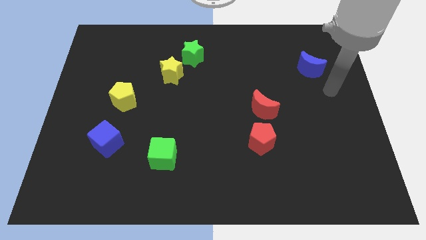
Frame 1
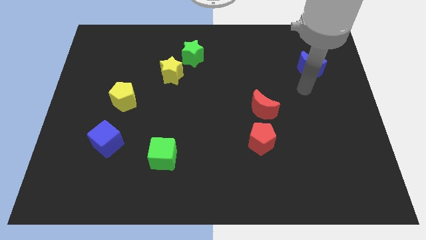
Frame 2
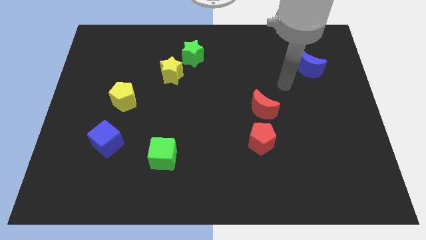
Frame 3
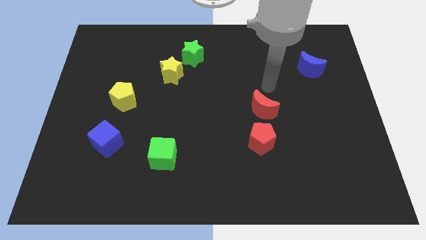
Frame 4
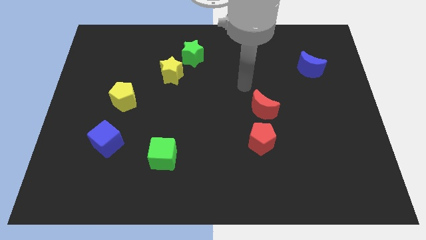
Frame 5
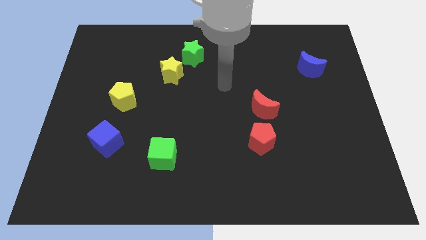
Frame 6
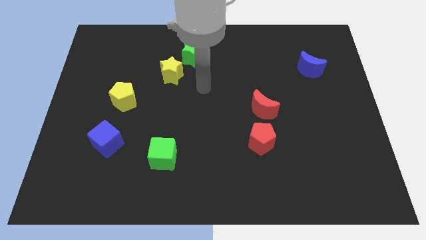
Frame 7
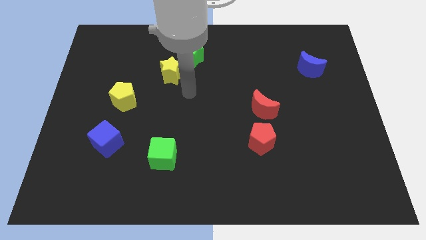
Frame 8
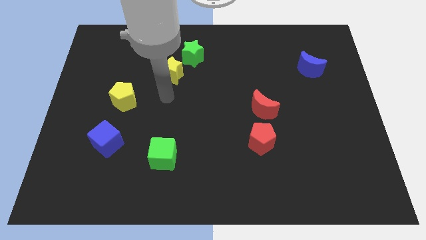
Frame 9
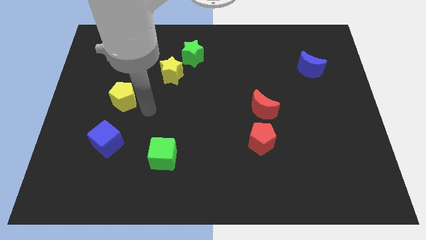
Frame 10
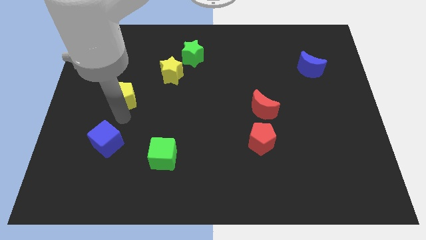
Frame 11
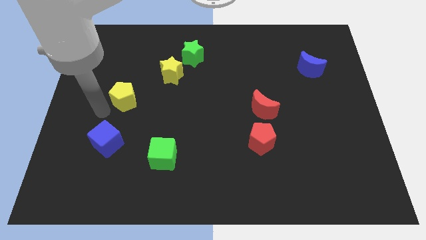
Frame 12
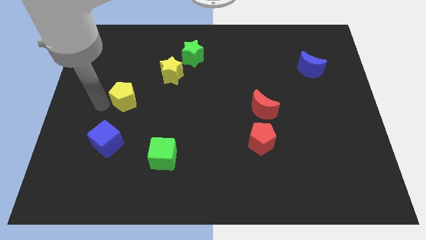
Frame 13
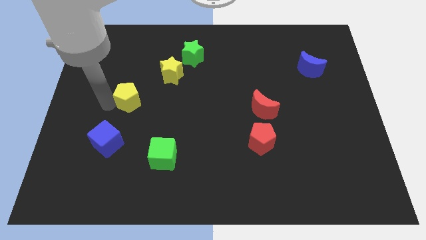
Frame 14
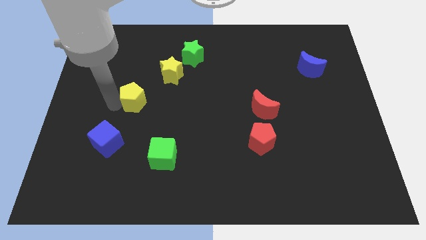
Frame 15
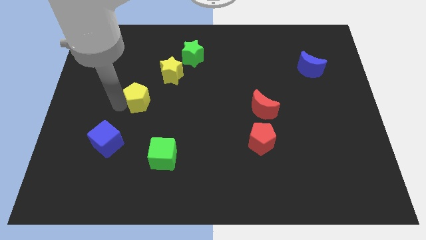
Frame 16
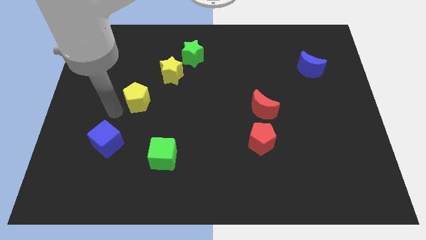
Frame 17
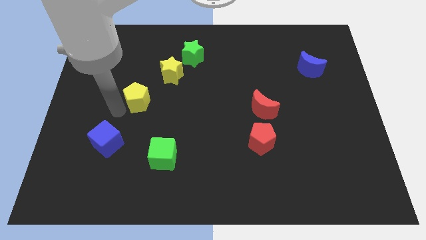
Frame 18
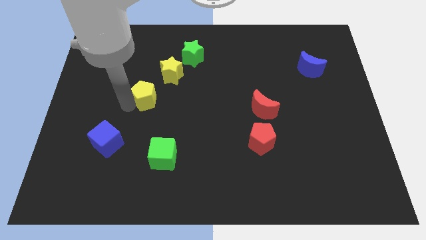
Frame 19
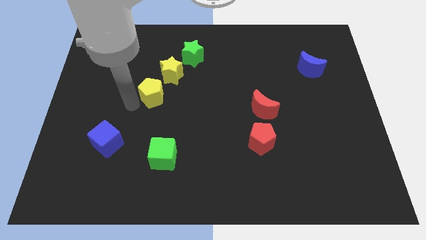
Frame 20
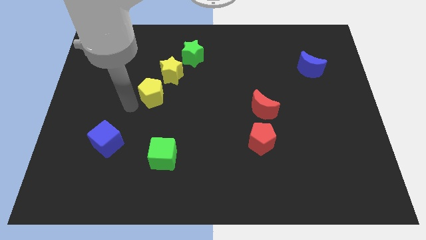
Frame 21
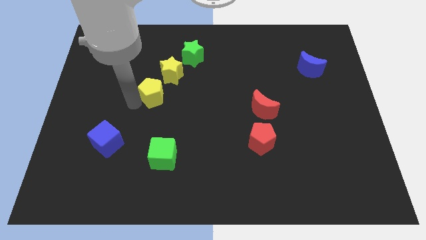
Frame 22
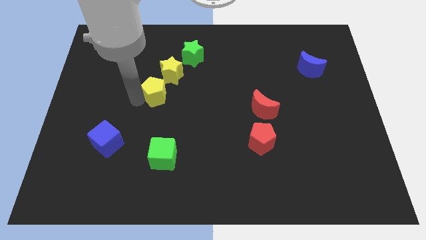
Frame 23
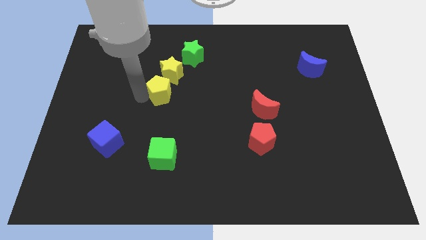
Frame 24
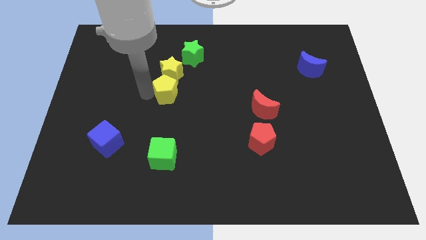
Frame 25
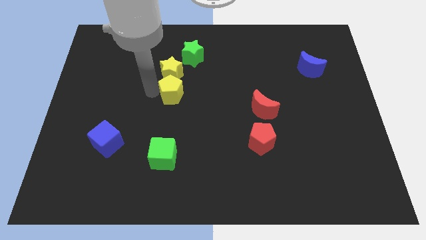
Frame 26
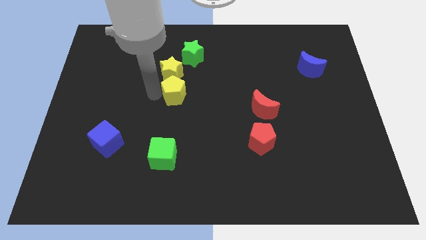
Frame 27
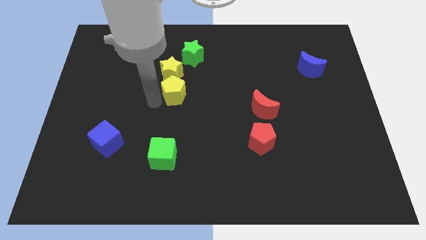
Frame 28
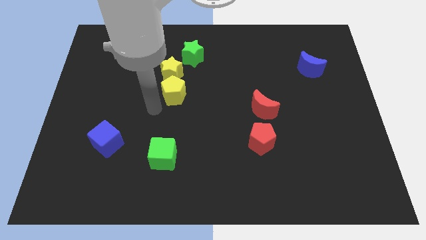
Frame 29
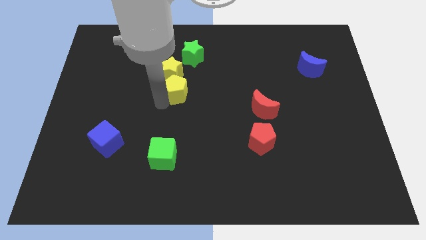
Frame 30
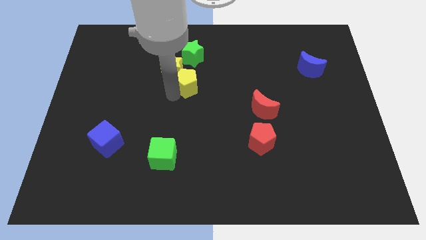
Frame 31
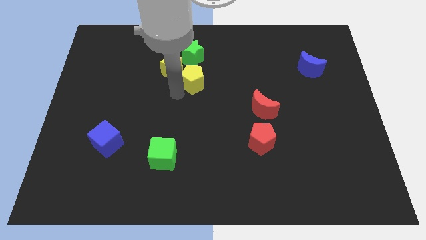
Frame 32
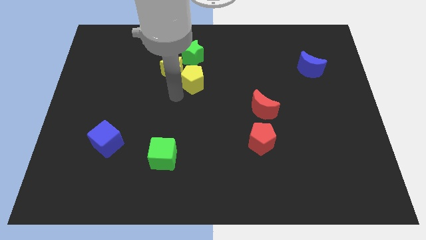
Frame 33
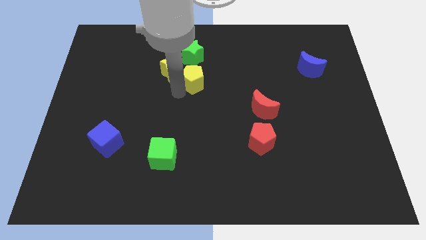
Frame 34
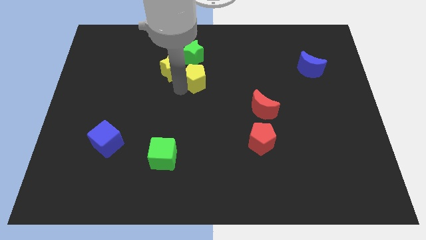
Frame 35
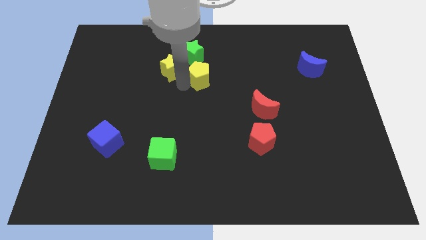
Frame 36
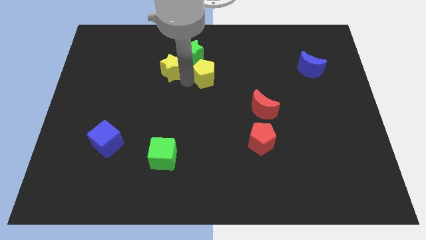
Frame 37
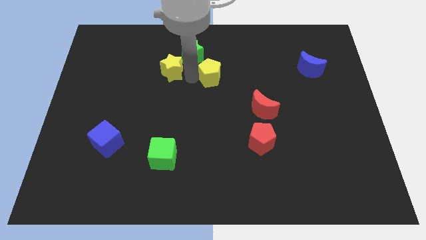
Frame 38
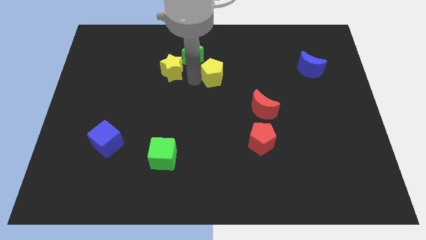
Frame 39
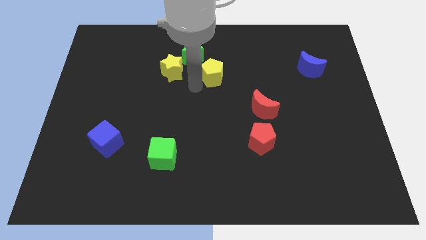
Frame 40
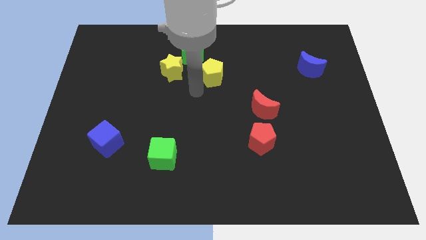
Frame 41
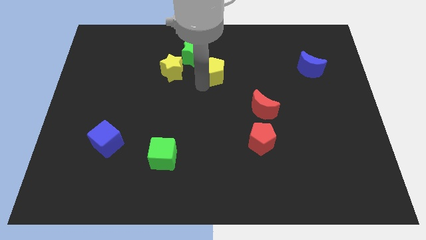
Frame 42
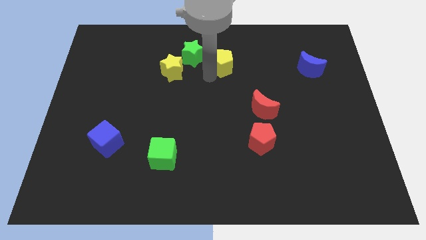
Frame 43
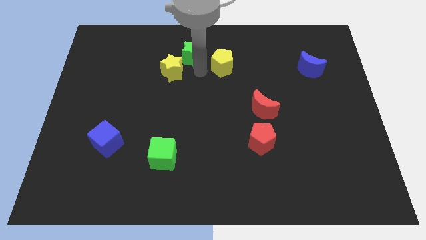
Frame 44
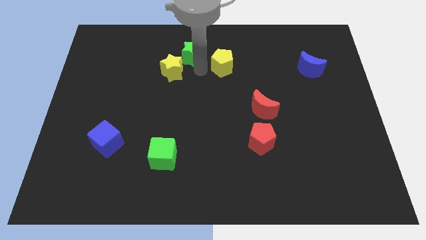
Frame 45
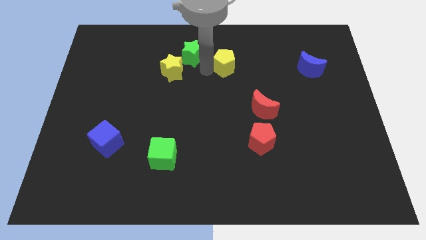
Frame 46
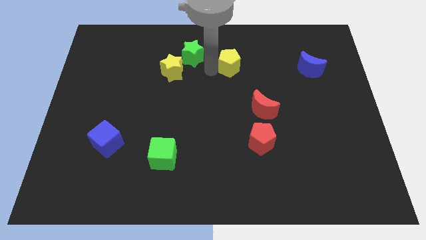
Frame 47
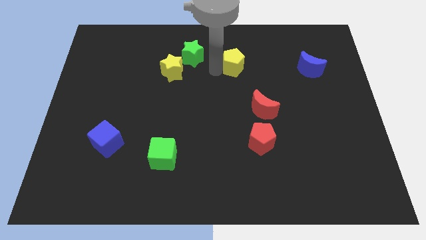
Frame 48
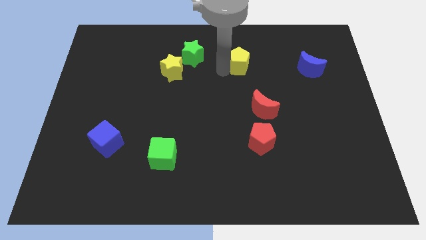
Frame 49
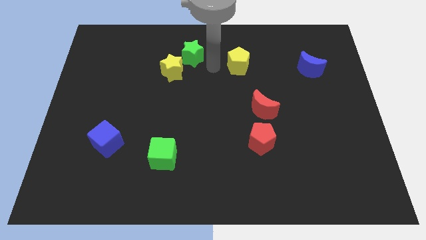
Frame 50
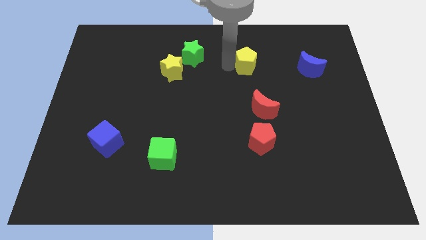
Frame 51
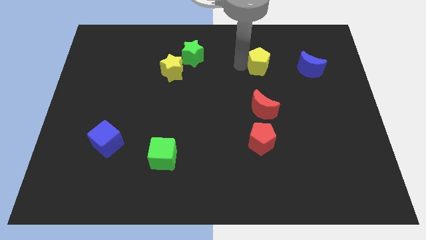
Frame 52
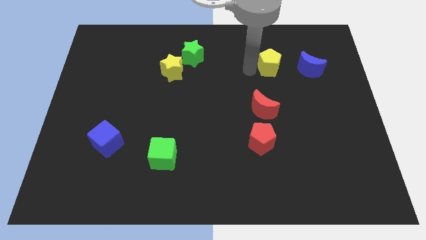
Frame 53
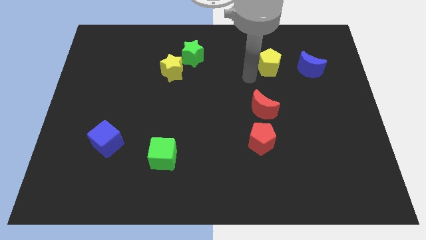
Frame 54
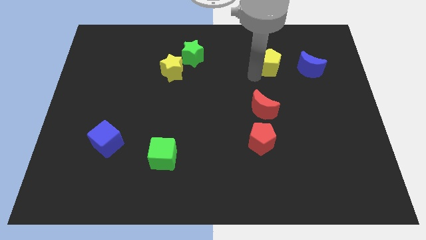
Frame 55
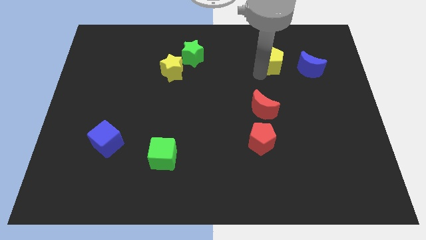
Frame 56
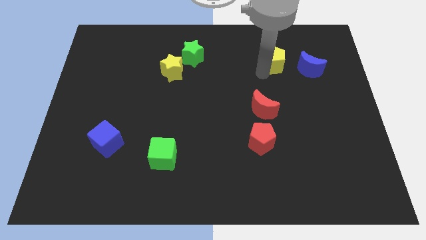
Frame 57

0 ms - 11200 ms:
slide the yellow pentagon to the top left of the blue moon

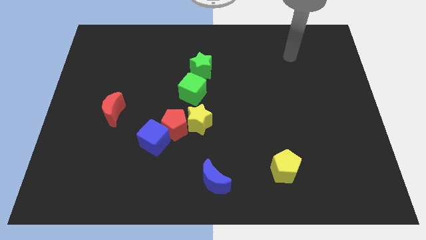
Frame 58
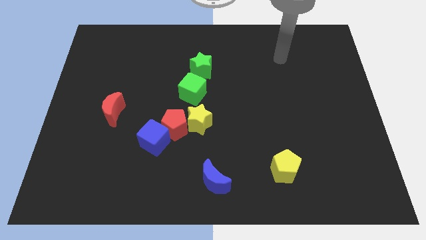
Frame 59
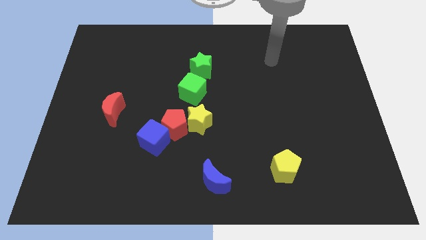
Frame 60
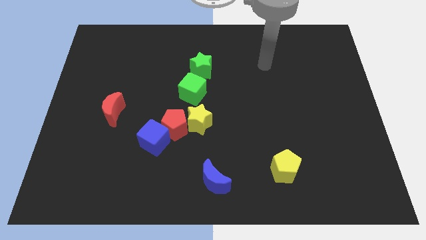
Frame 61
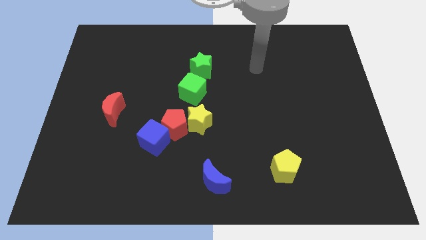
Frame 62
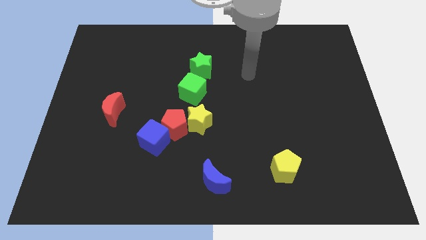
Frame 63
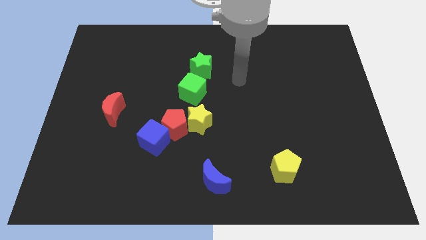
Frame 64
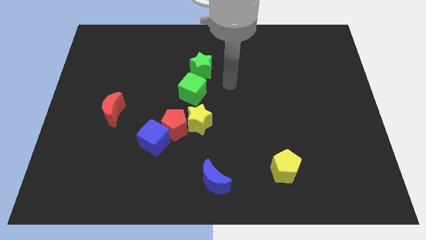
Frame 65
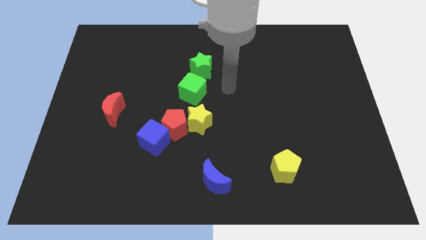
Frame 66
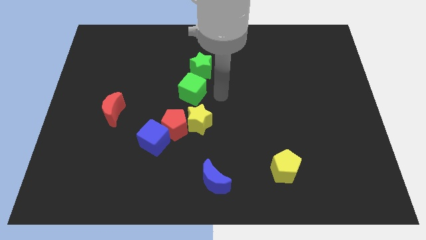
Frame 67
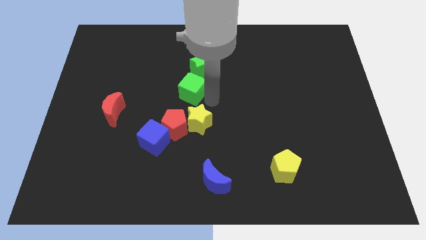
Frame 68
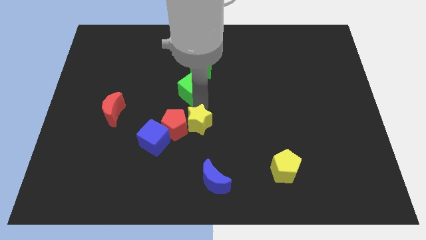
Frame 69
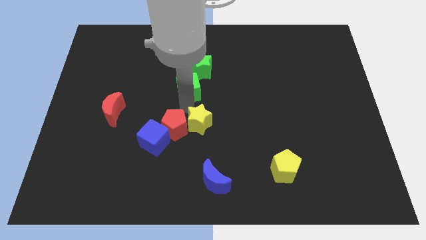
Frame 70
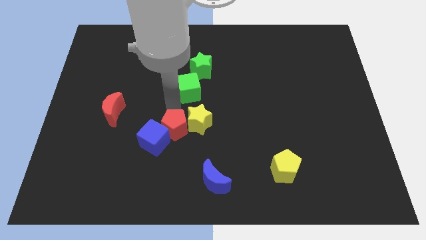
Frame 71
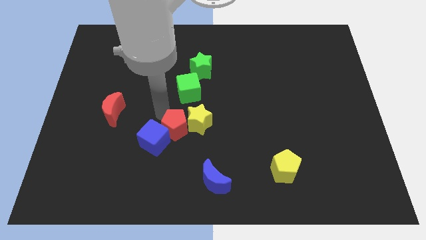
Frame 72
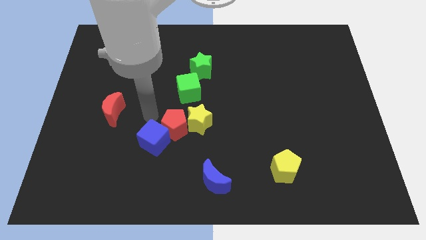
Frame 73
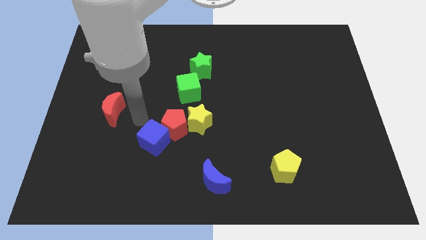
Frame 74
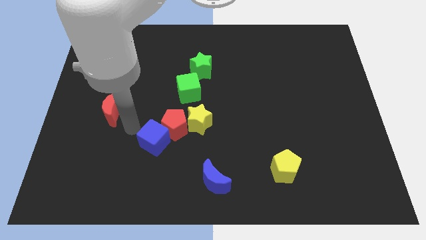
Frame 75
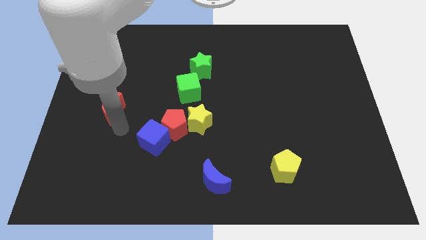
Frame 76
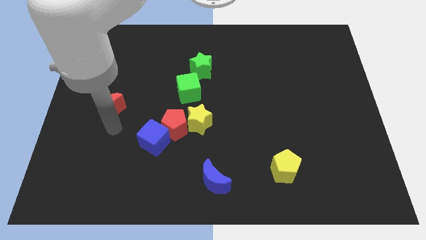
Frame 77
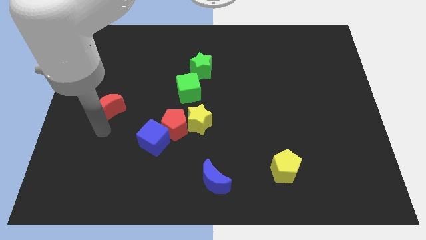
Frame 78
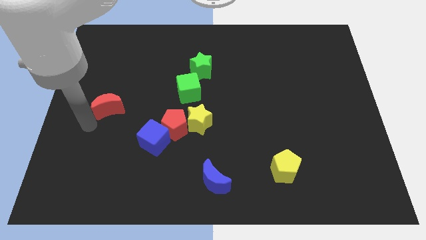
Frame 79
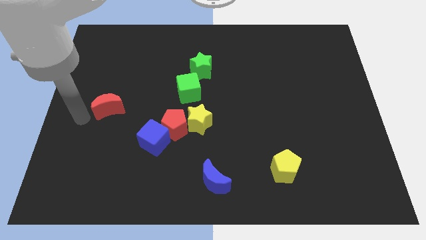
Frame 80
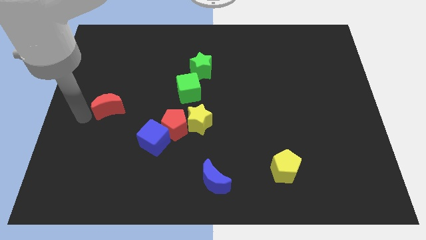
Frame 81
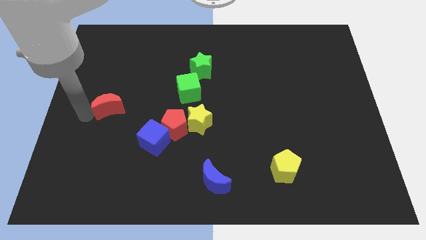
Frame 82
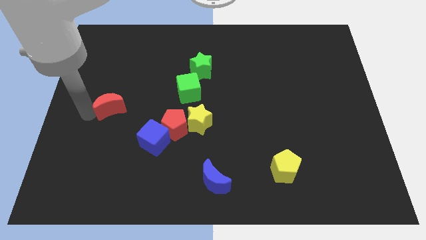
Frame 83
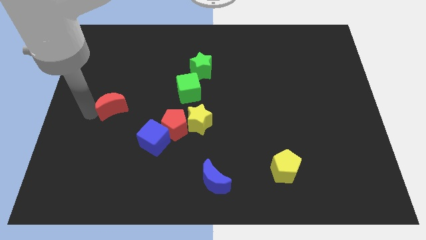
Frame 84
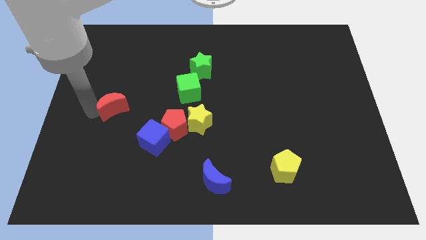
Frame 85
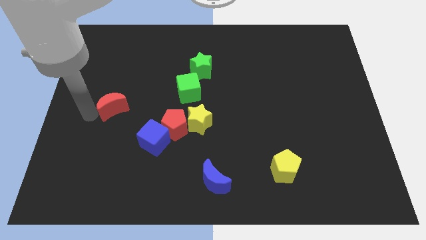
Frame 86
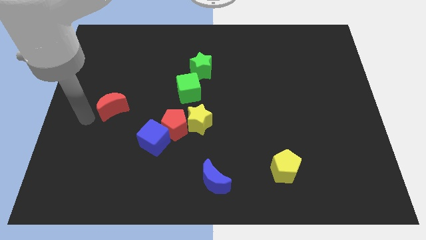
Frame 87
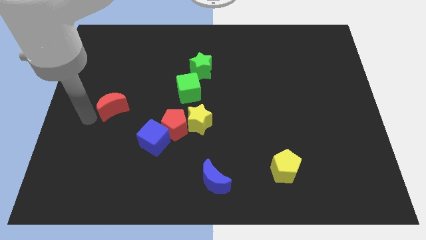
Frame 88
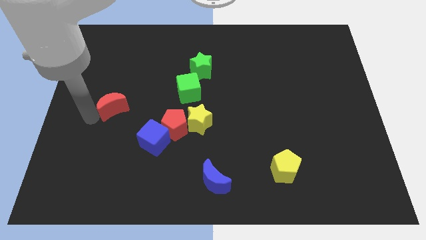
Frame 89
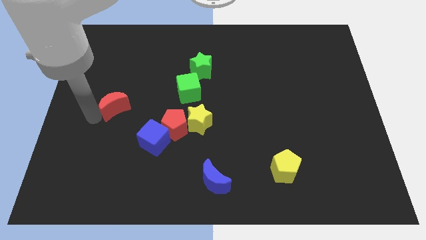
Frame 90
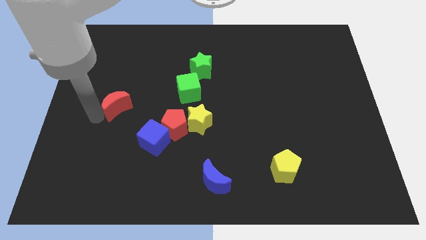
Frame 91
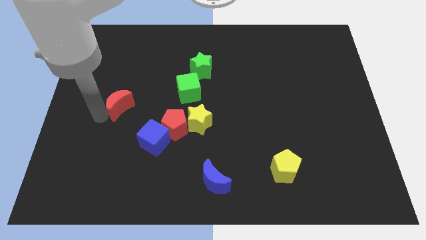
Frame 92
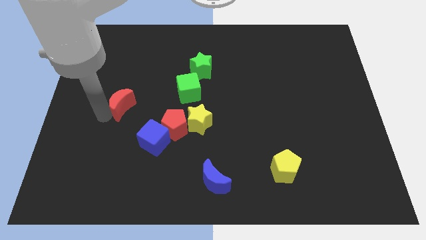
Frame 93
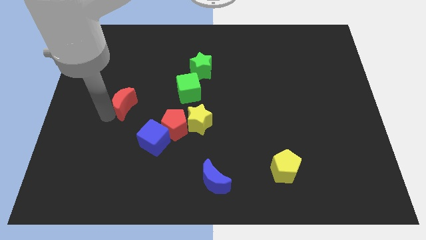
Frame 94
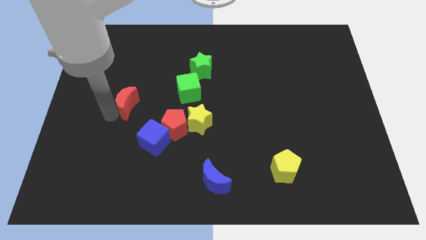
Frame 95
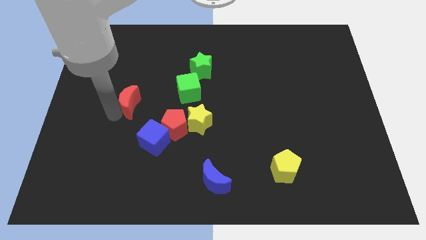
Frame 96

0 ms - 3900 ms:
push the red moon just left of the green cube
